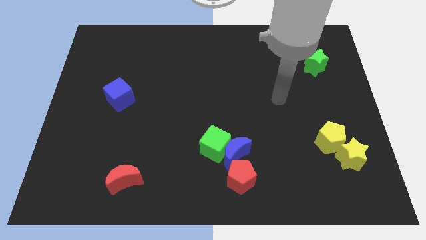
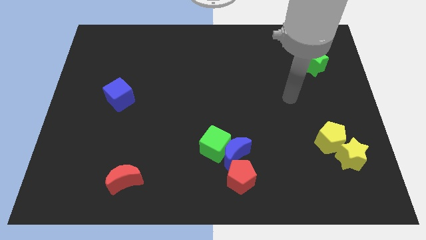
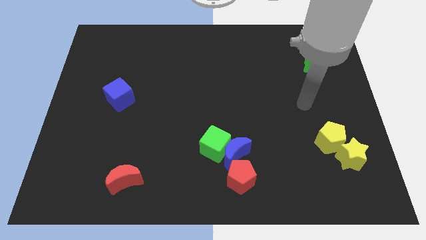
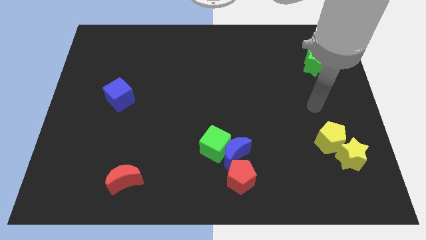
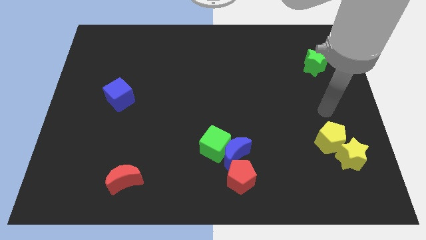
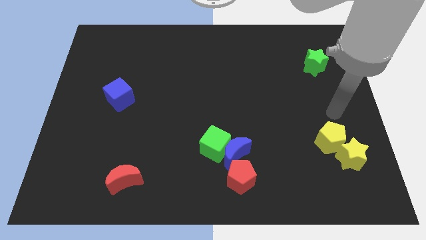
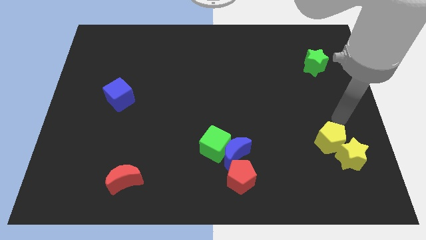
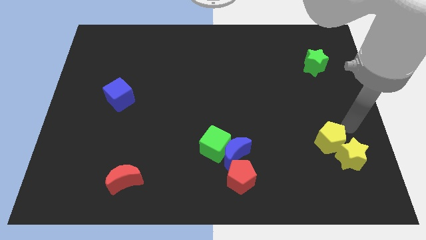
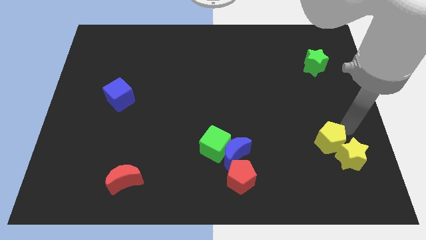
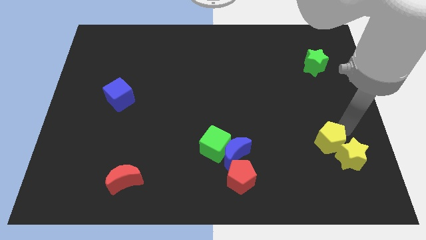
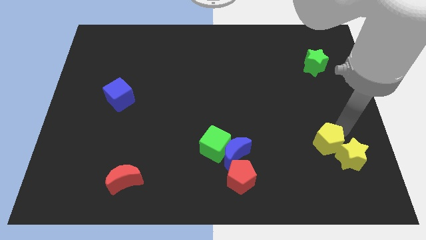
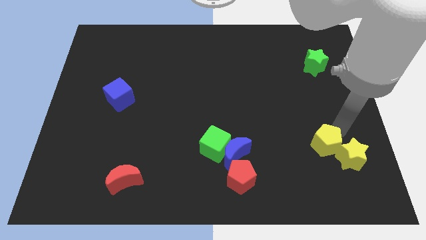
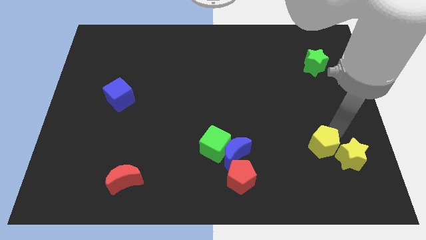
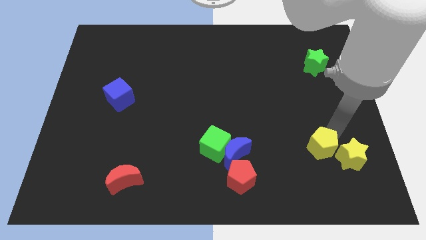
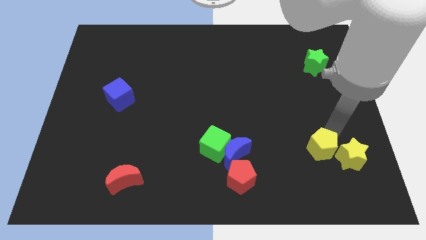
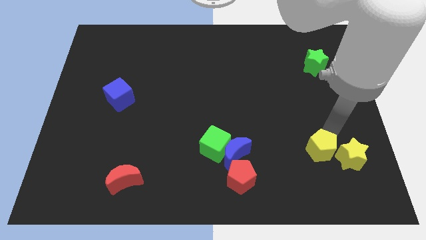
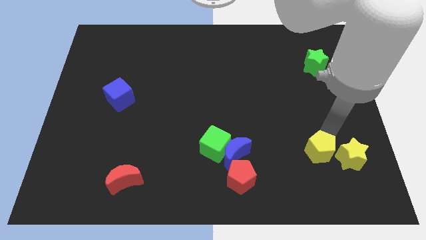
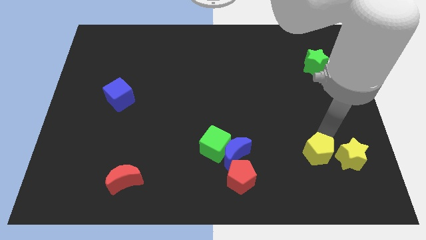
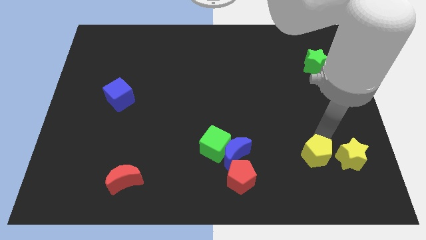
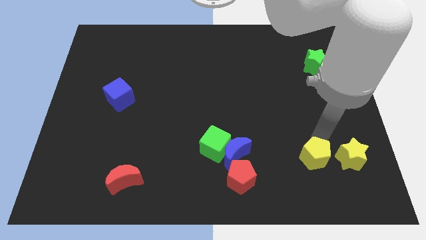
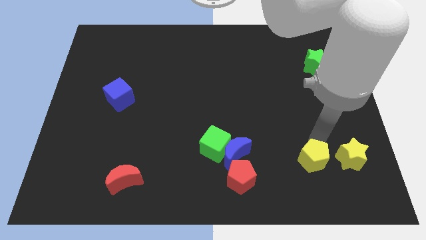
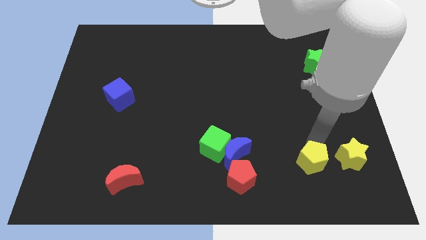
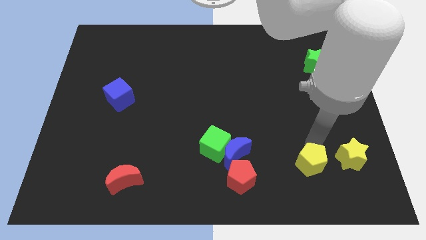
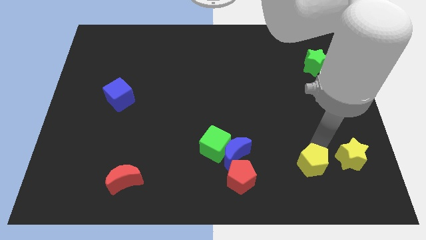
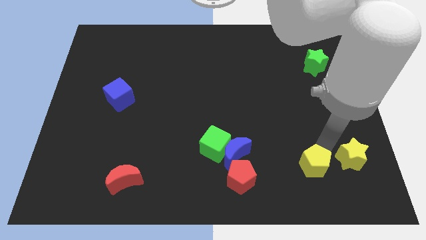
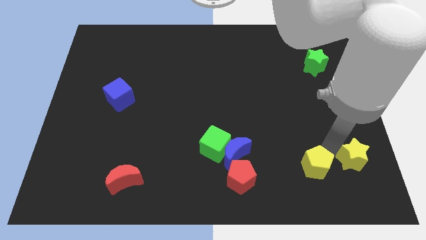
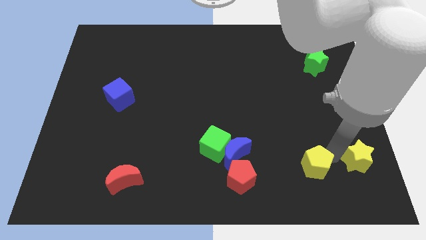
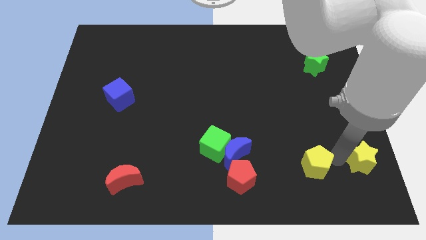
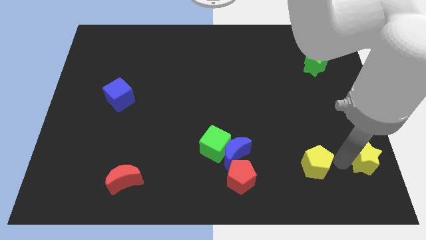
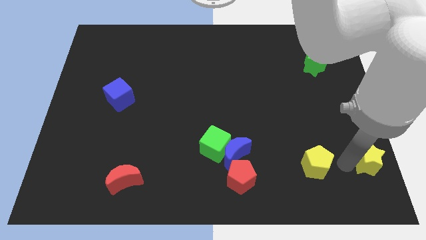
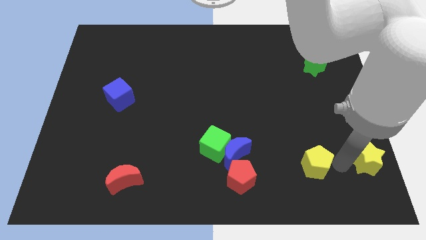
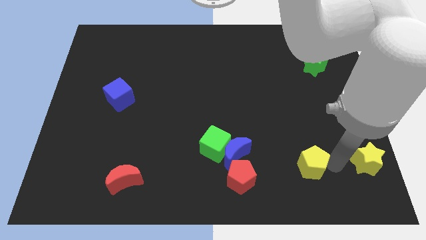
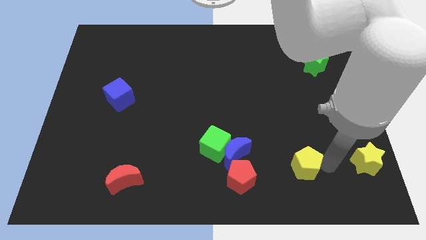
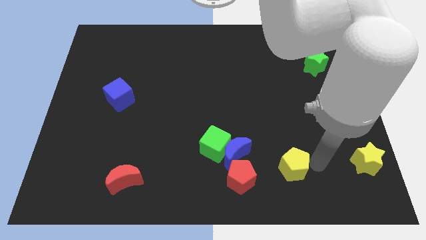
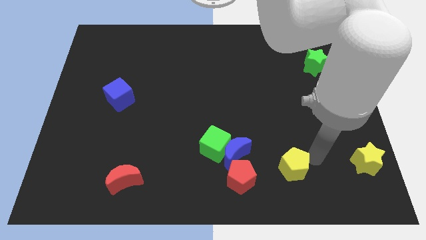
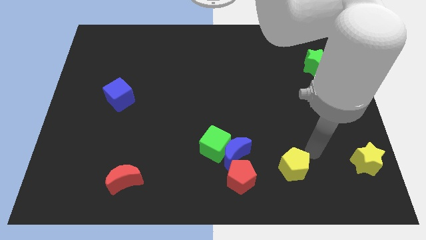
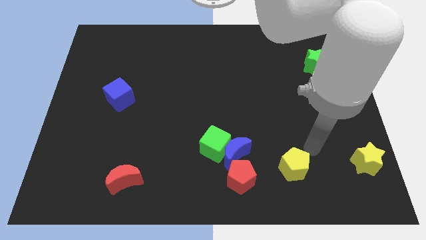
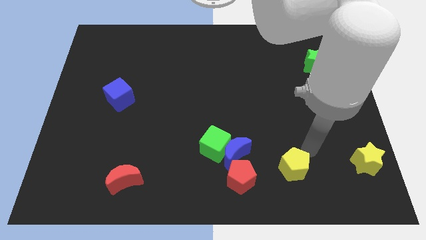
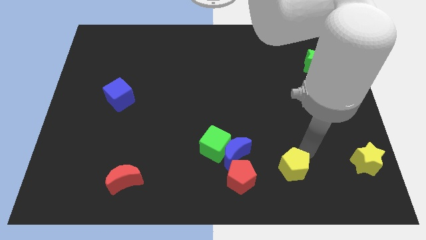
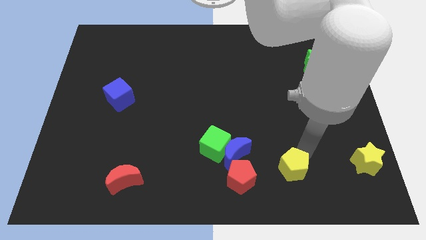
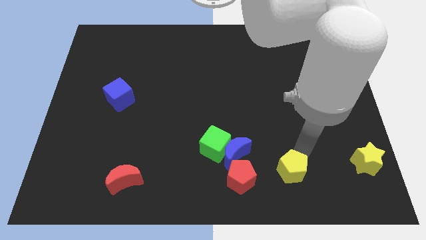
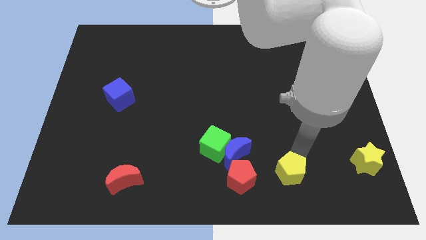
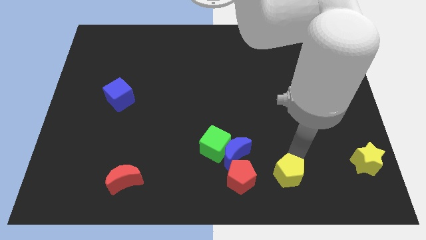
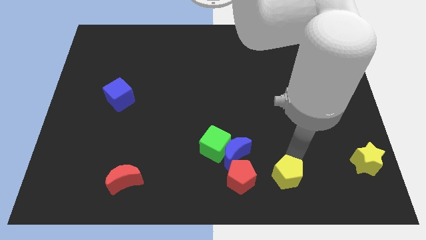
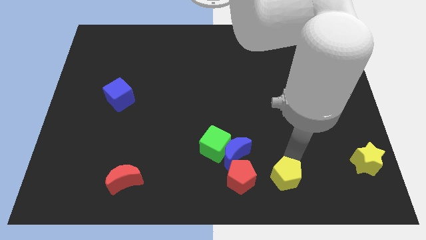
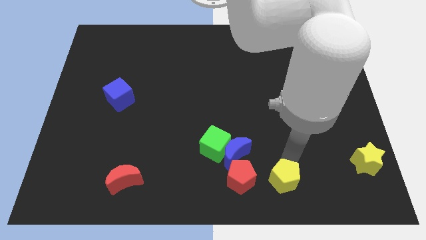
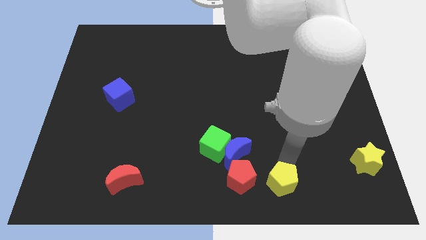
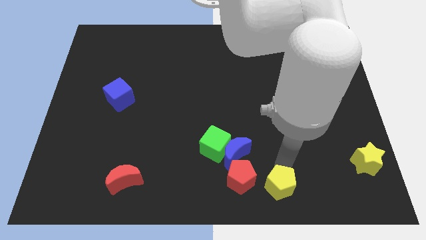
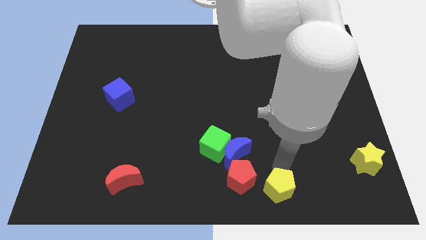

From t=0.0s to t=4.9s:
push the yellow pentagon to the bottom

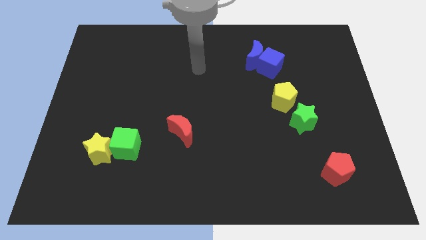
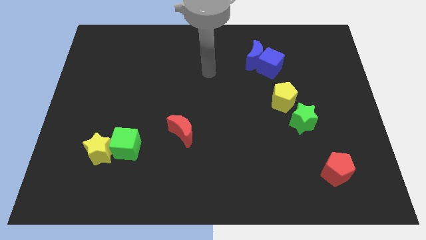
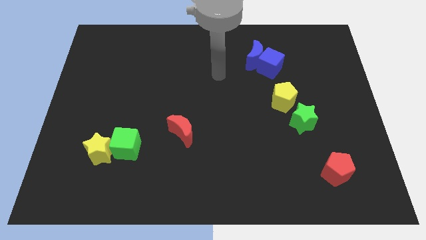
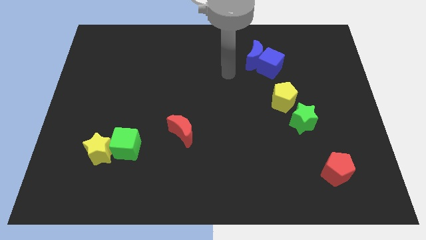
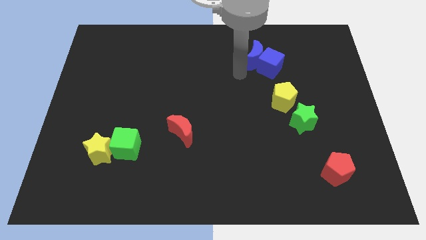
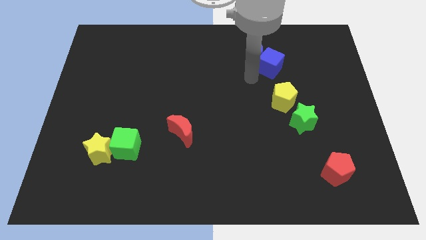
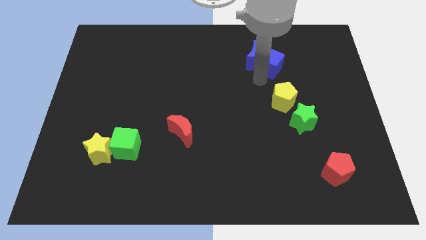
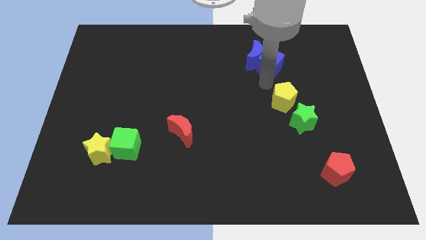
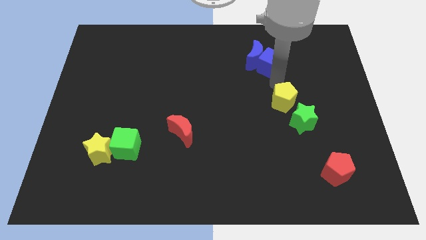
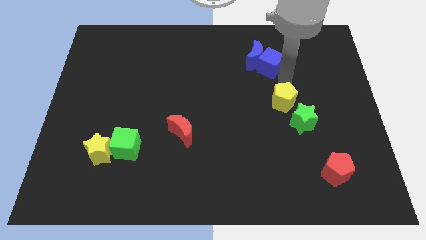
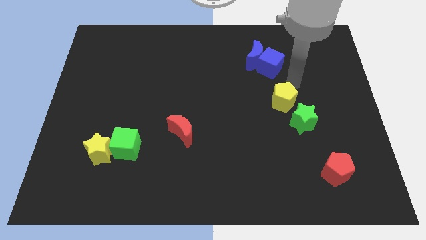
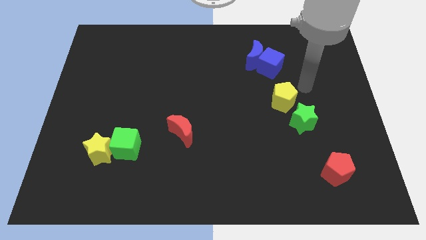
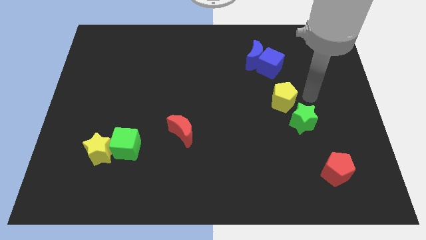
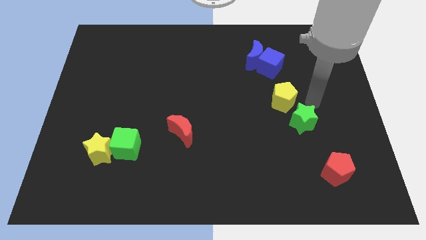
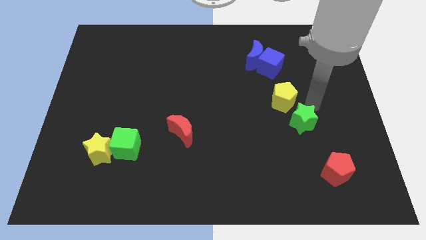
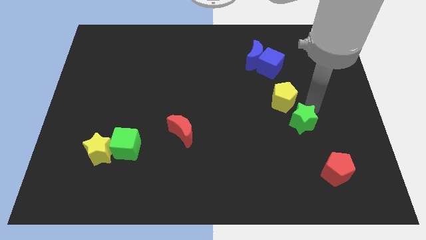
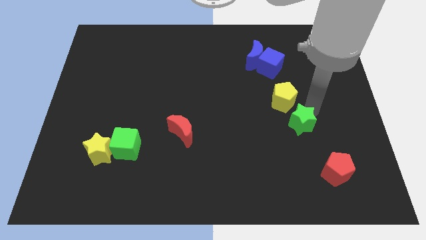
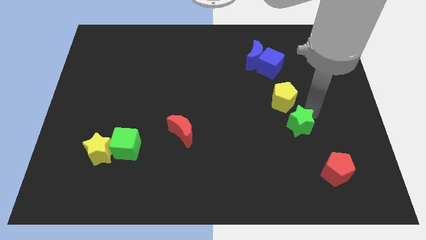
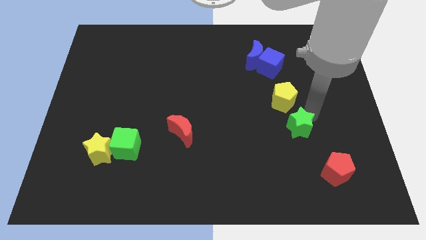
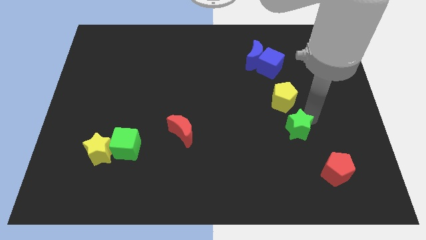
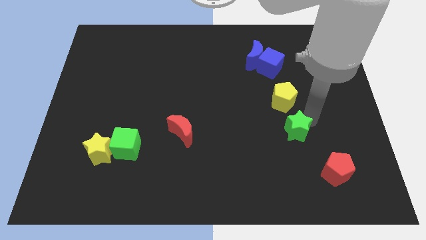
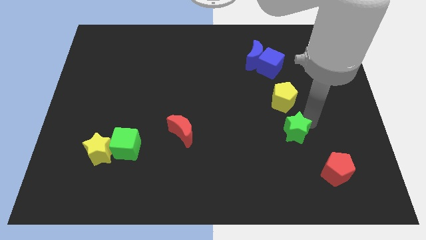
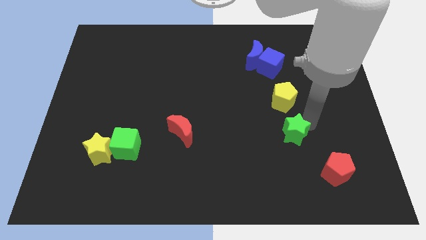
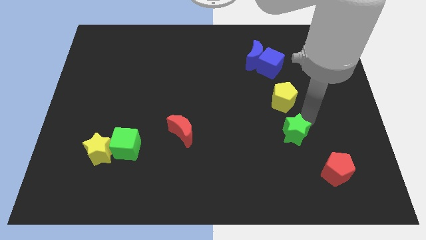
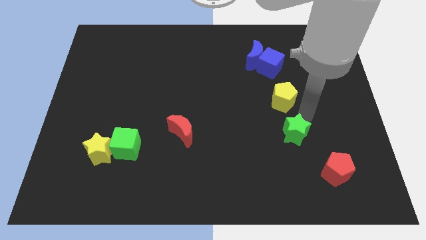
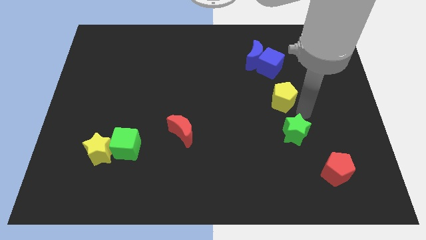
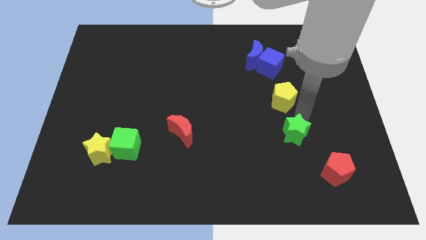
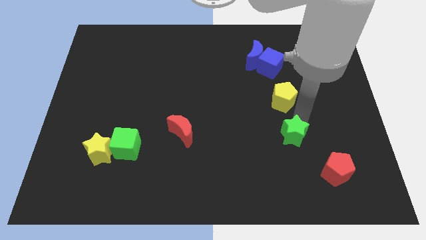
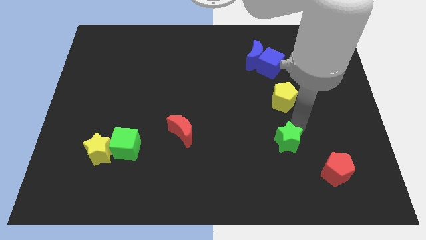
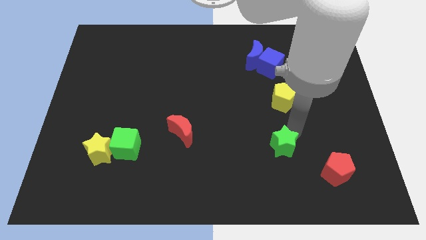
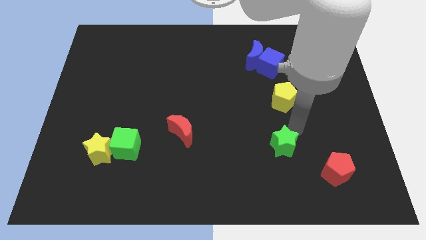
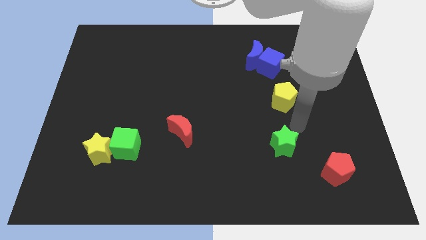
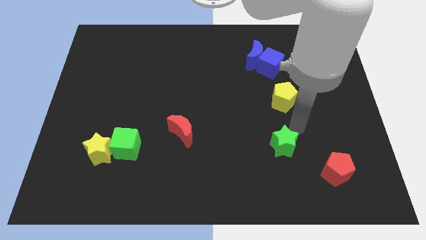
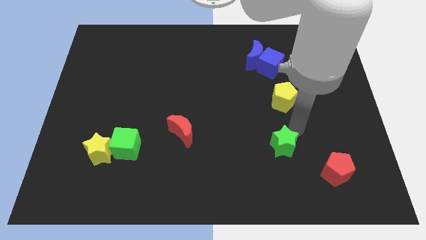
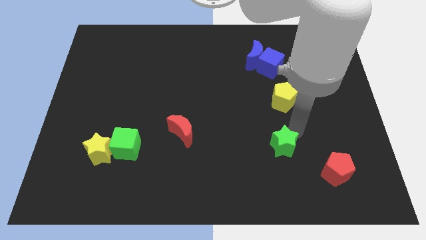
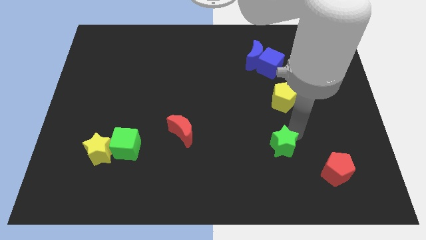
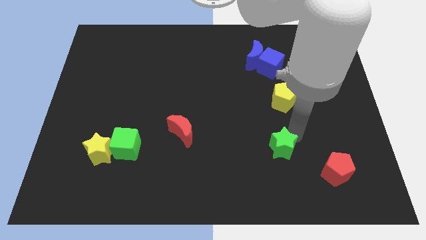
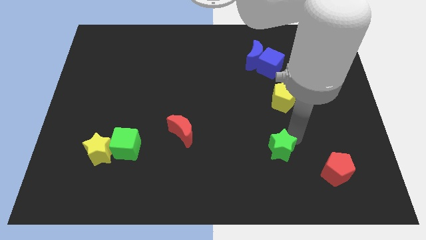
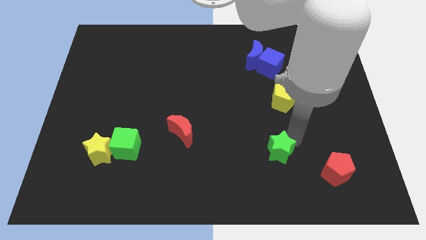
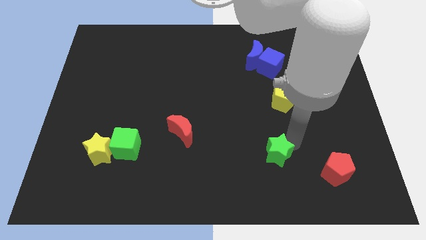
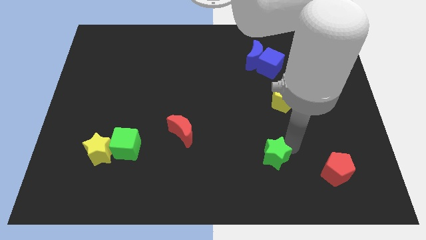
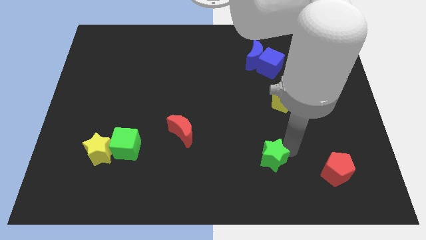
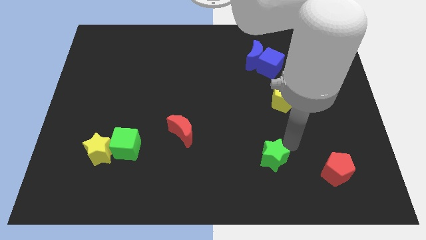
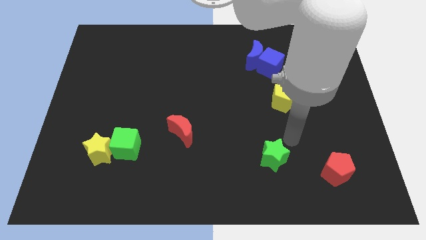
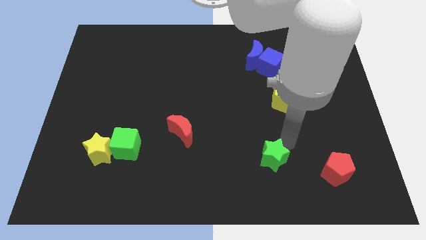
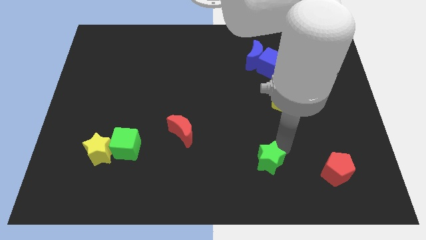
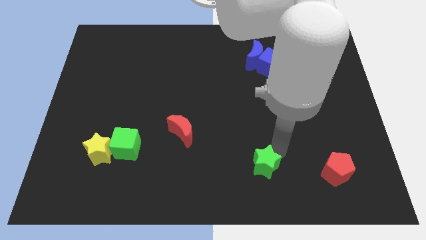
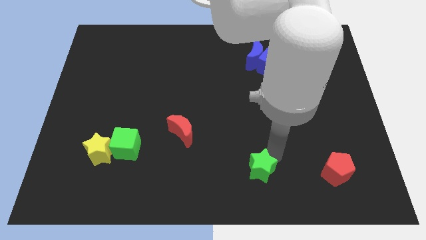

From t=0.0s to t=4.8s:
put the green star to the bottom
